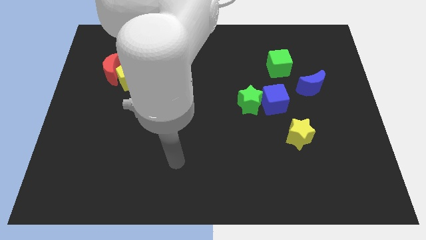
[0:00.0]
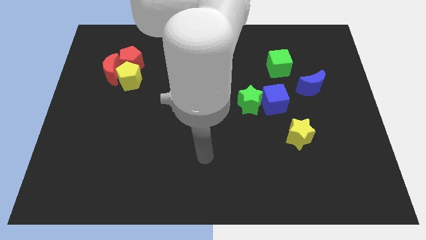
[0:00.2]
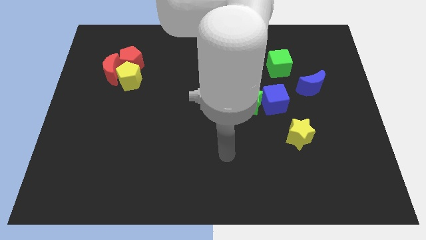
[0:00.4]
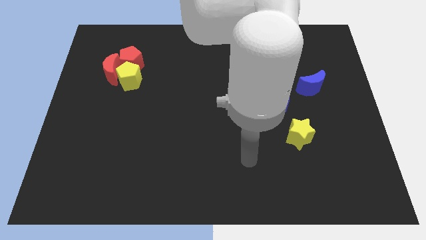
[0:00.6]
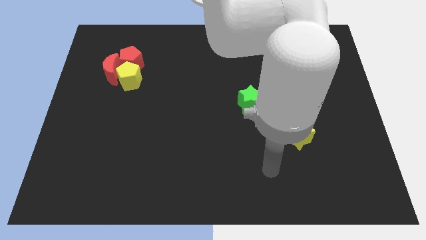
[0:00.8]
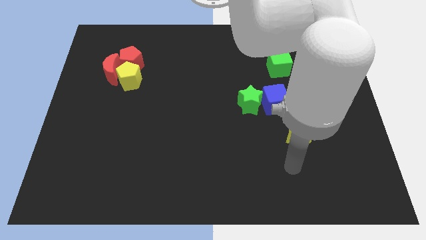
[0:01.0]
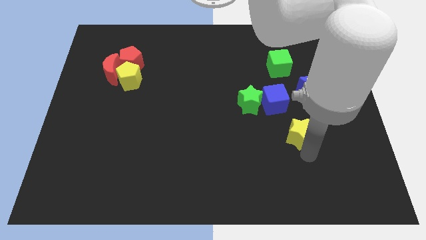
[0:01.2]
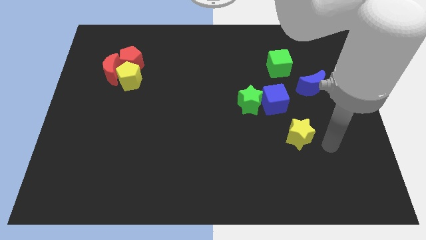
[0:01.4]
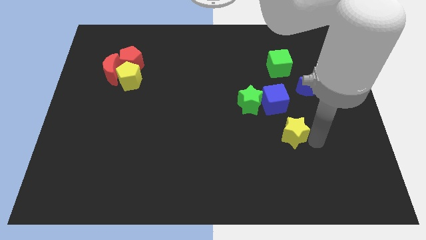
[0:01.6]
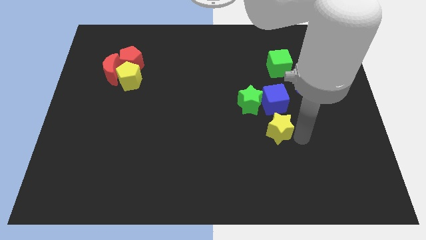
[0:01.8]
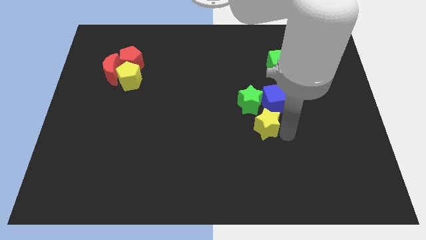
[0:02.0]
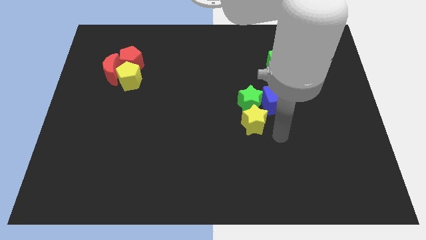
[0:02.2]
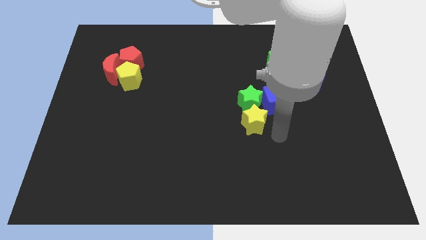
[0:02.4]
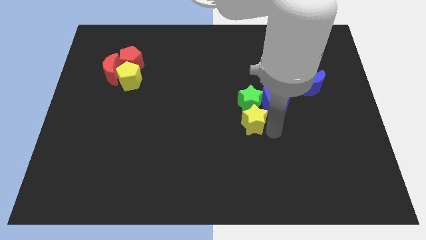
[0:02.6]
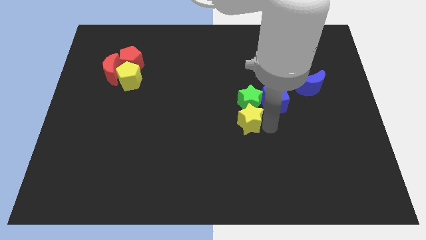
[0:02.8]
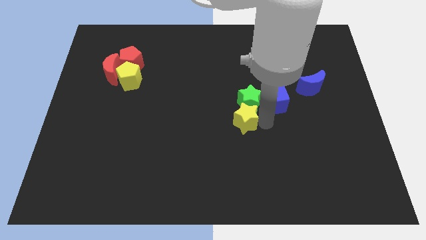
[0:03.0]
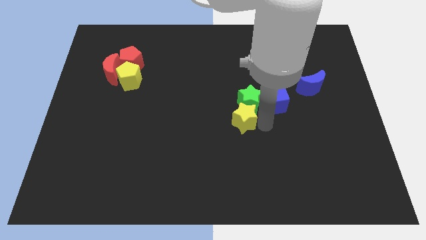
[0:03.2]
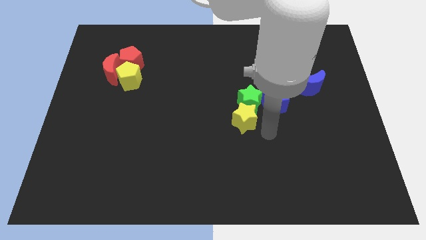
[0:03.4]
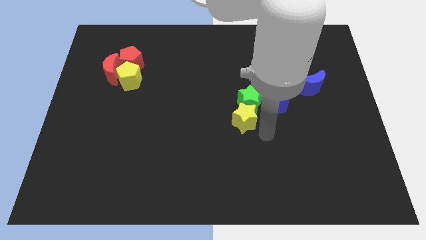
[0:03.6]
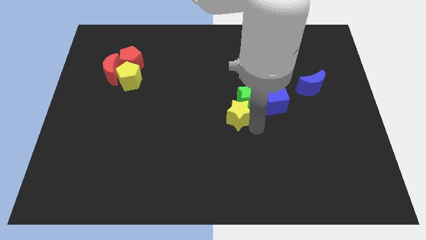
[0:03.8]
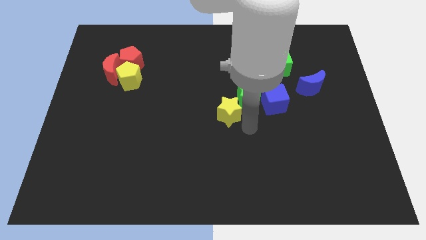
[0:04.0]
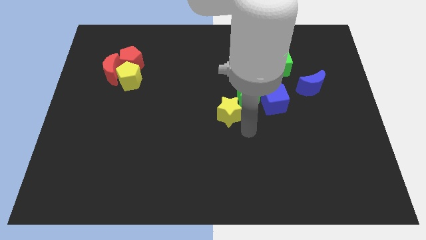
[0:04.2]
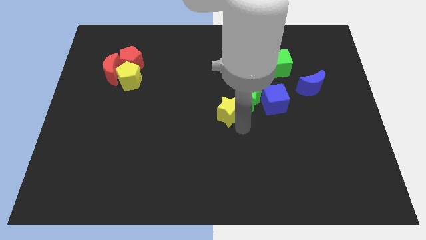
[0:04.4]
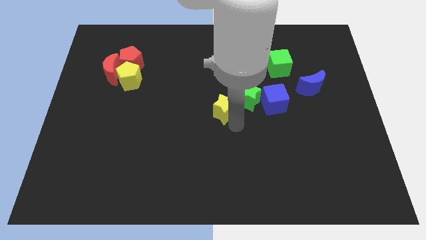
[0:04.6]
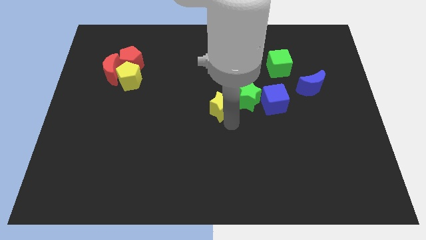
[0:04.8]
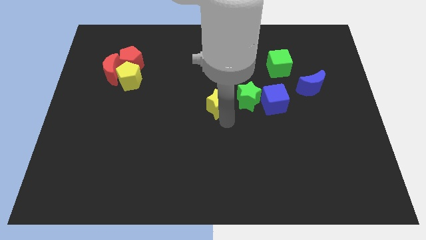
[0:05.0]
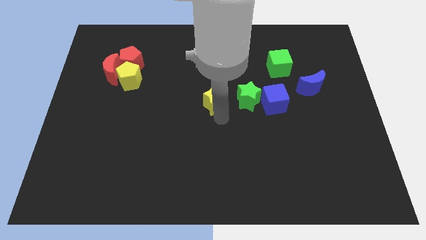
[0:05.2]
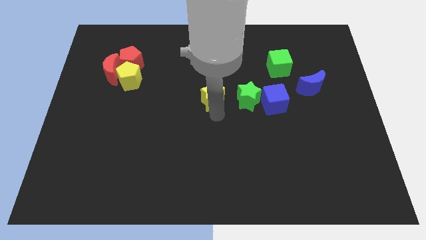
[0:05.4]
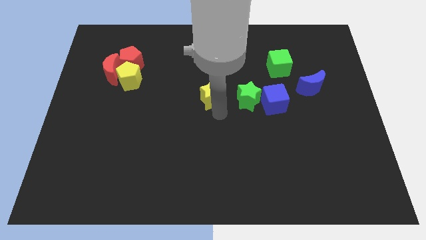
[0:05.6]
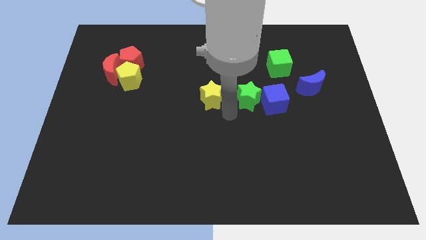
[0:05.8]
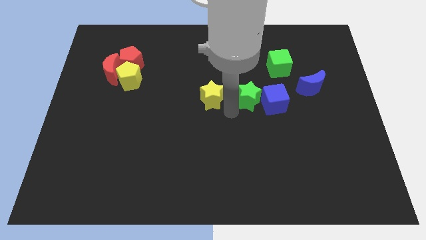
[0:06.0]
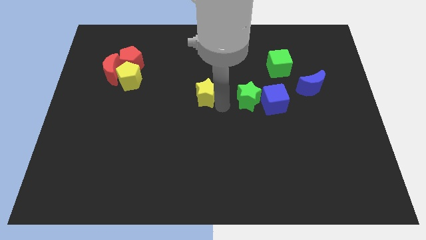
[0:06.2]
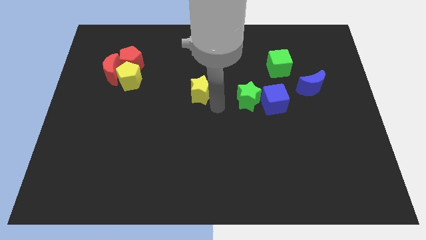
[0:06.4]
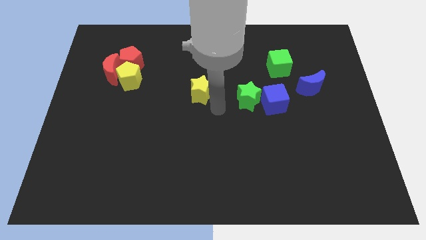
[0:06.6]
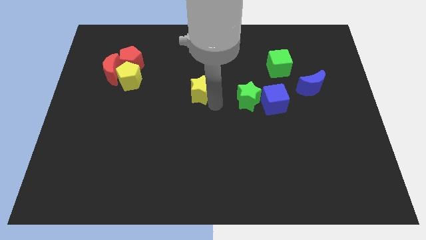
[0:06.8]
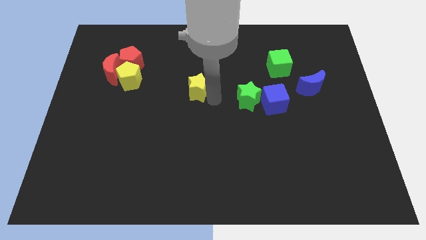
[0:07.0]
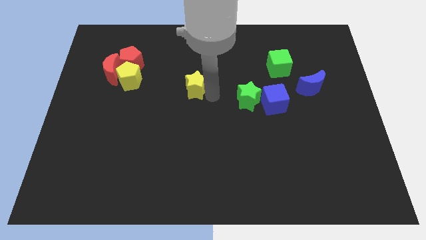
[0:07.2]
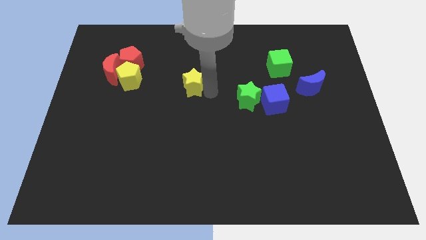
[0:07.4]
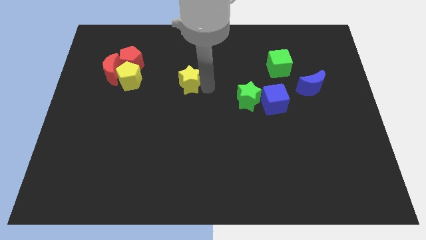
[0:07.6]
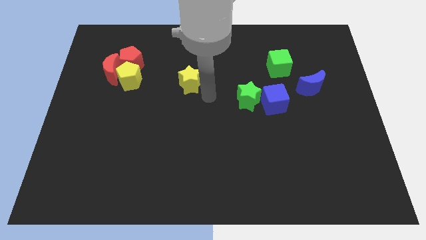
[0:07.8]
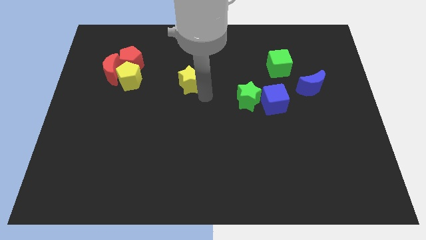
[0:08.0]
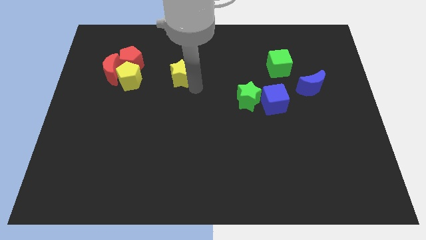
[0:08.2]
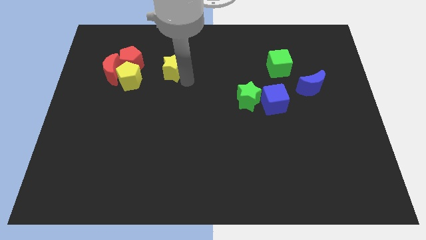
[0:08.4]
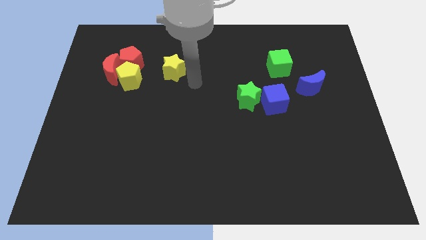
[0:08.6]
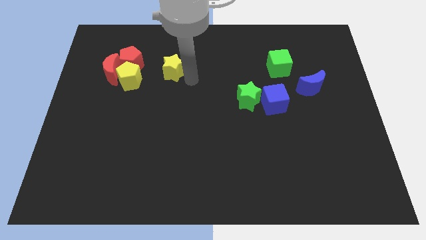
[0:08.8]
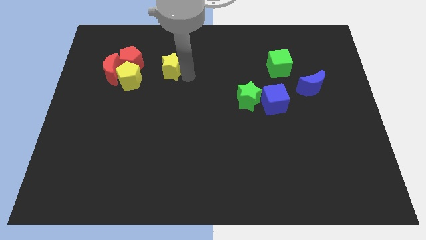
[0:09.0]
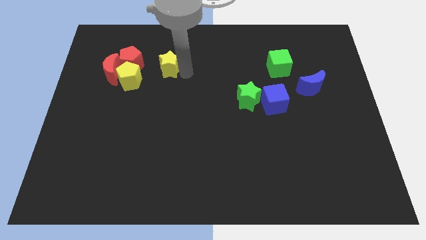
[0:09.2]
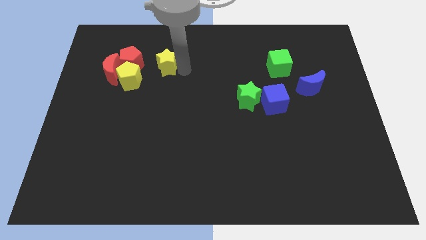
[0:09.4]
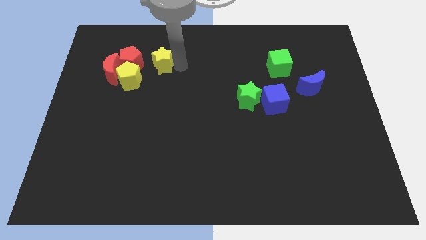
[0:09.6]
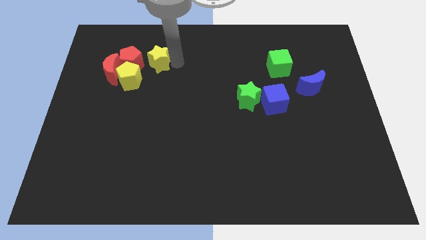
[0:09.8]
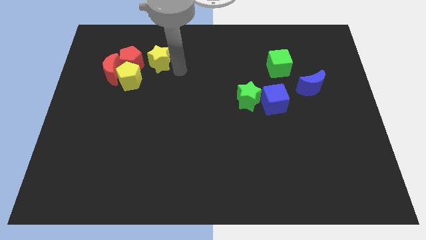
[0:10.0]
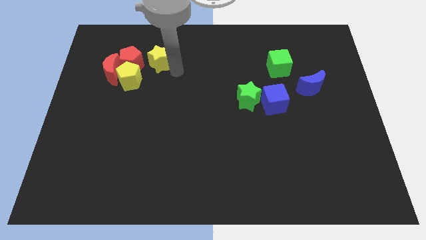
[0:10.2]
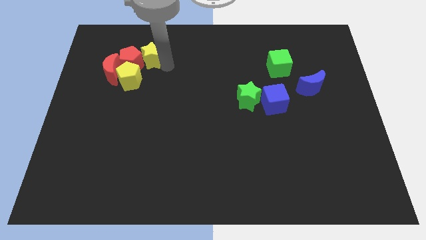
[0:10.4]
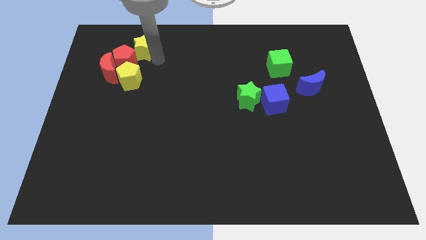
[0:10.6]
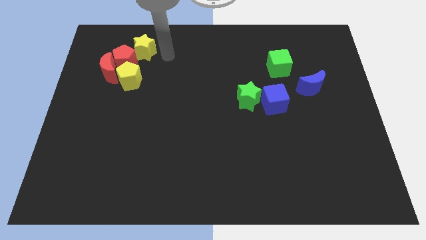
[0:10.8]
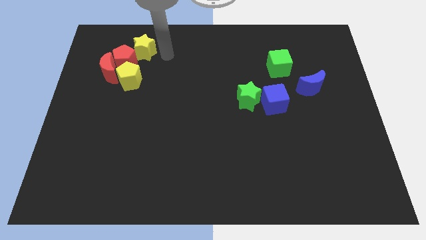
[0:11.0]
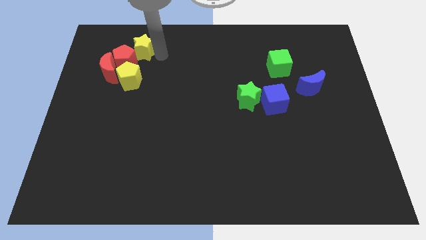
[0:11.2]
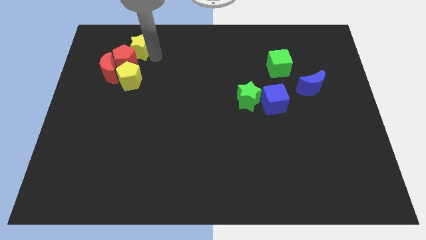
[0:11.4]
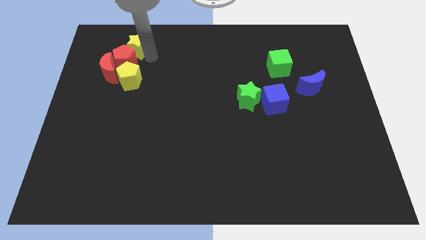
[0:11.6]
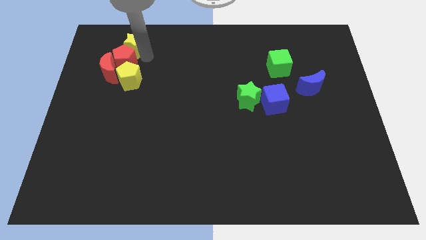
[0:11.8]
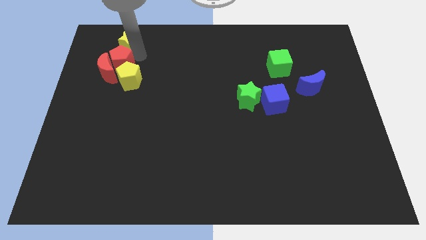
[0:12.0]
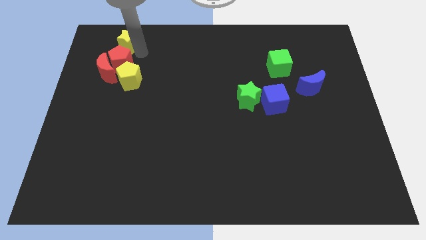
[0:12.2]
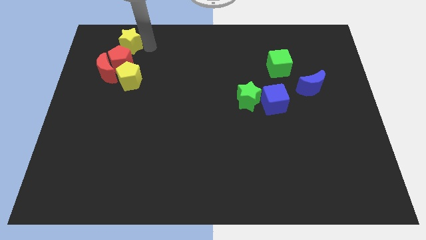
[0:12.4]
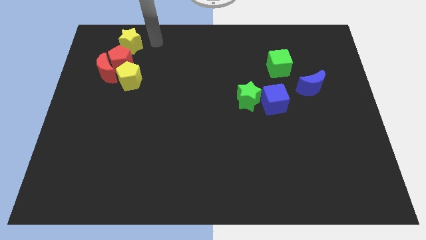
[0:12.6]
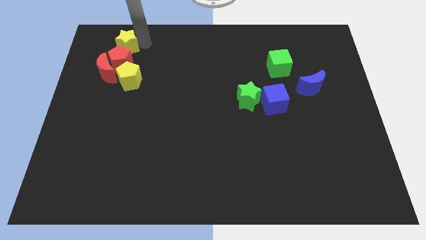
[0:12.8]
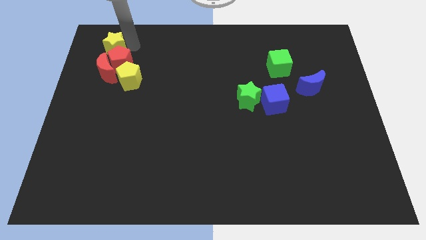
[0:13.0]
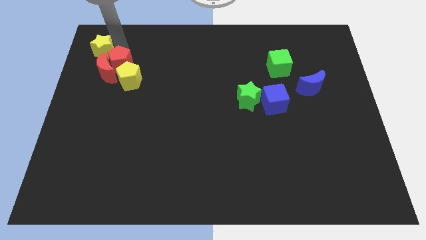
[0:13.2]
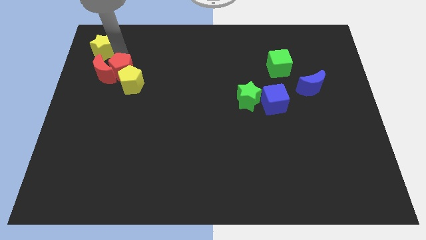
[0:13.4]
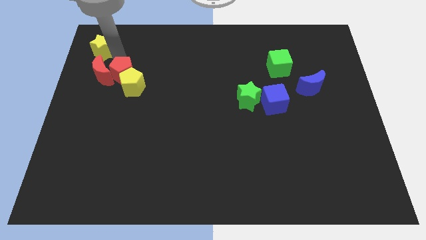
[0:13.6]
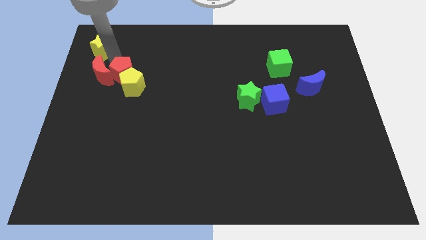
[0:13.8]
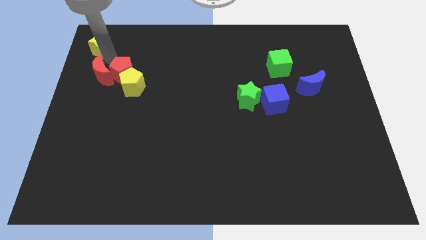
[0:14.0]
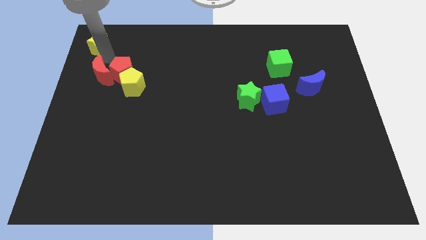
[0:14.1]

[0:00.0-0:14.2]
push the yellow star to the top left
